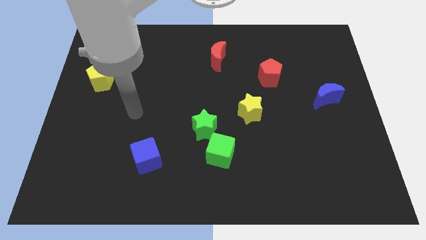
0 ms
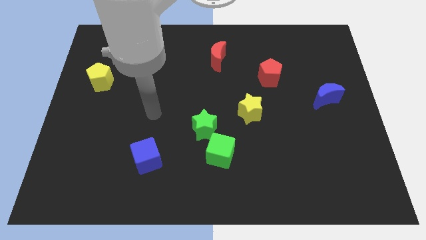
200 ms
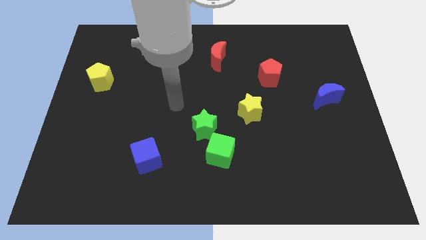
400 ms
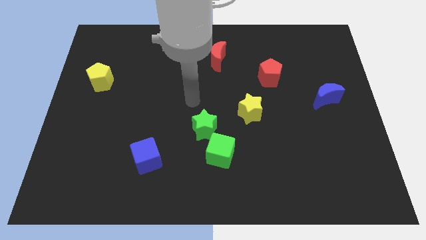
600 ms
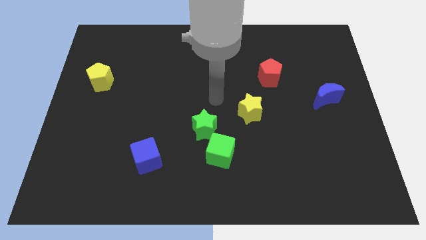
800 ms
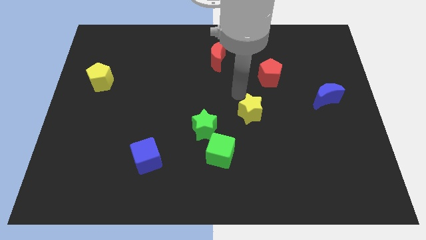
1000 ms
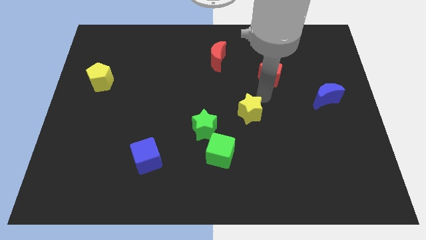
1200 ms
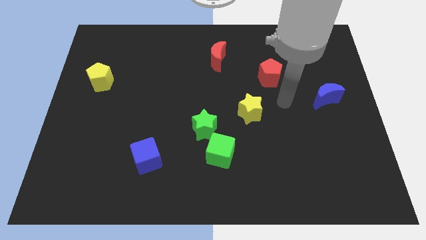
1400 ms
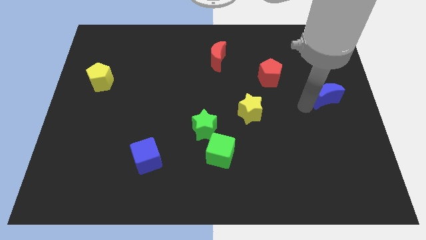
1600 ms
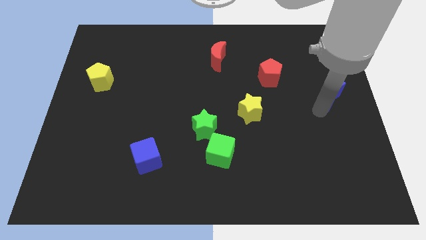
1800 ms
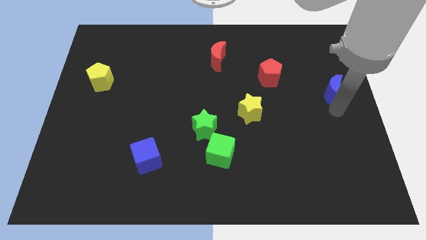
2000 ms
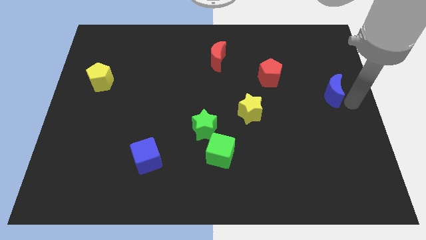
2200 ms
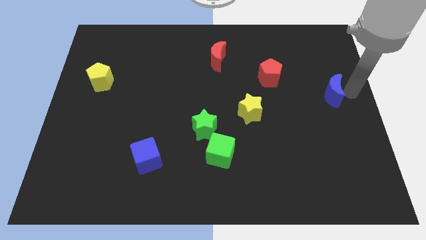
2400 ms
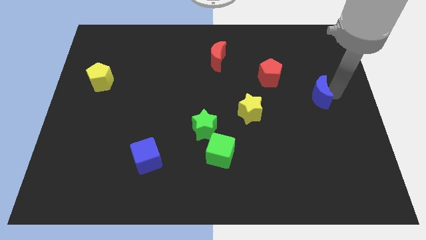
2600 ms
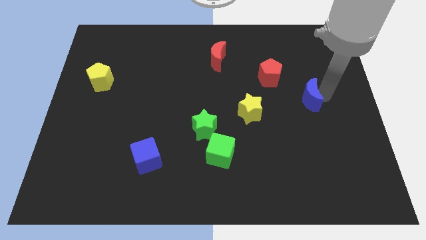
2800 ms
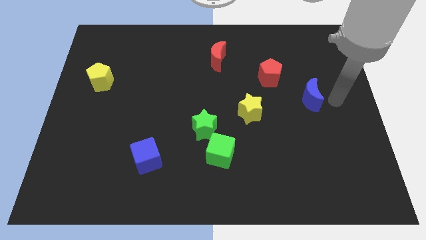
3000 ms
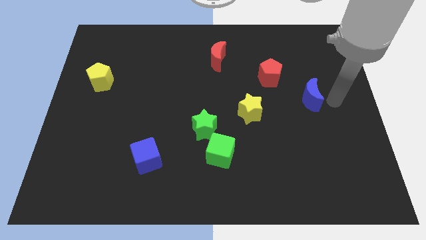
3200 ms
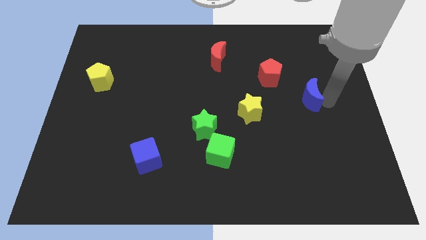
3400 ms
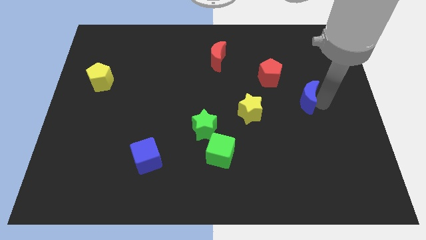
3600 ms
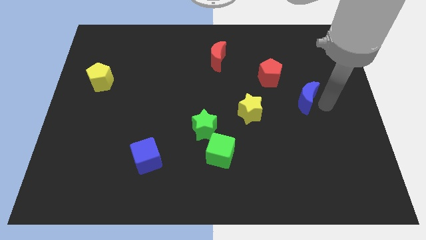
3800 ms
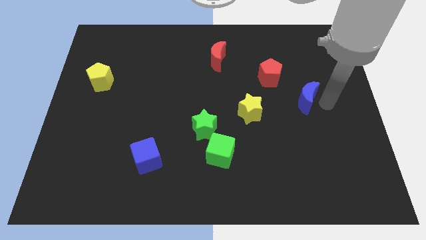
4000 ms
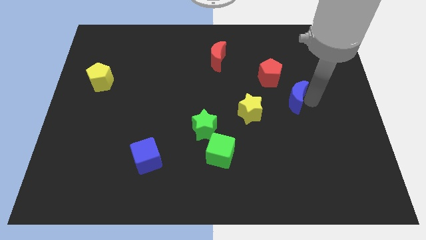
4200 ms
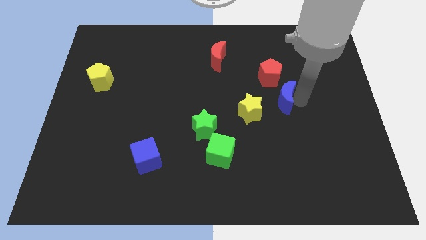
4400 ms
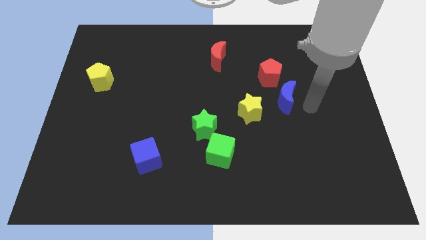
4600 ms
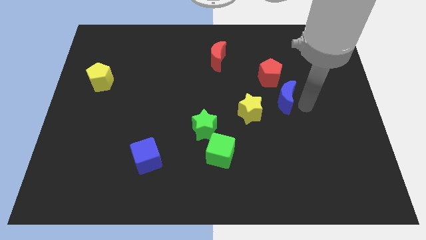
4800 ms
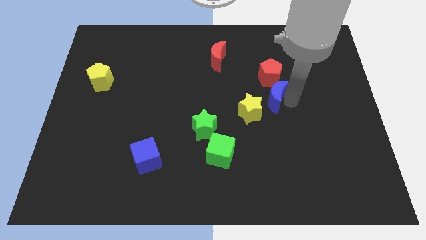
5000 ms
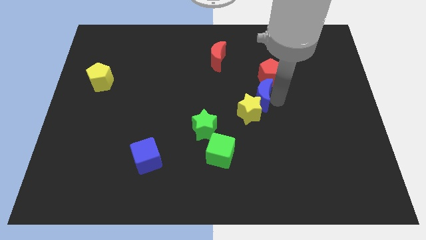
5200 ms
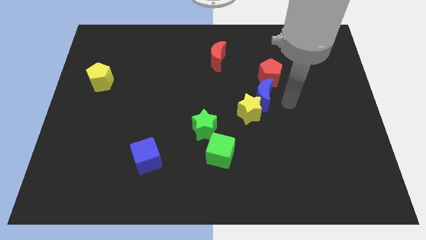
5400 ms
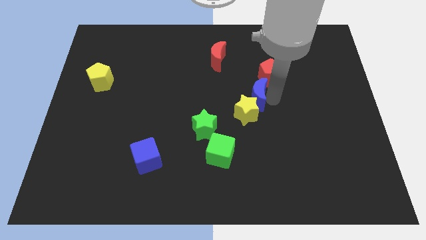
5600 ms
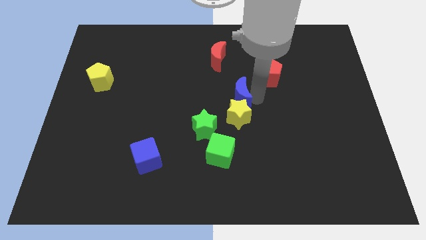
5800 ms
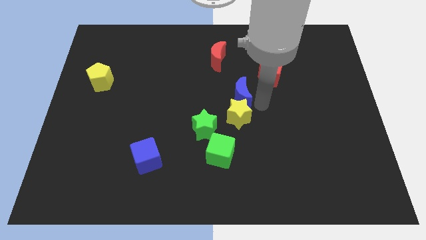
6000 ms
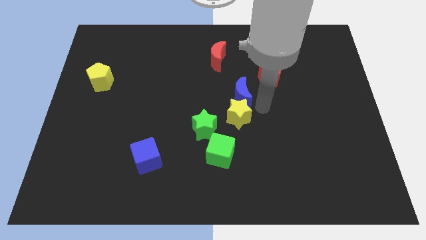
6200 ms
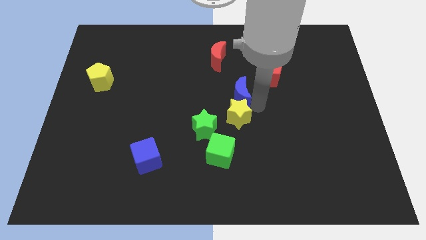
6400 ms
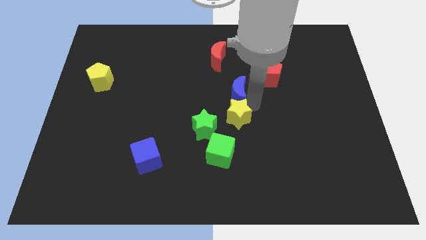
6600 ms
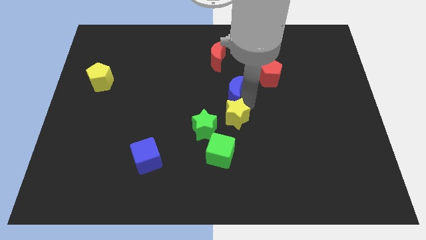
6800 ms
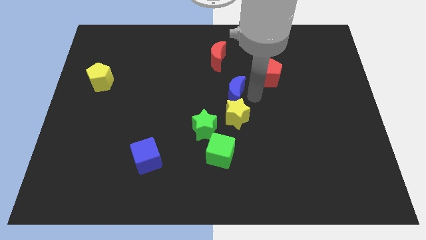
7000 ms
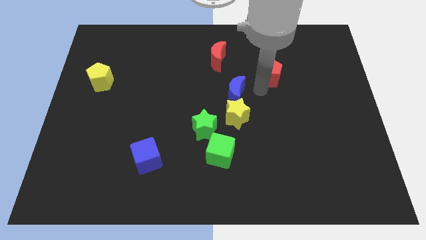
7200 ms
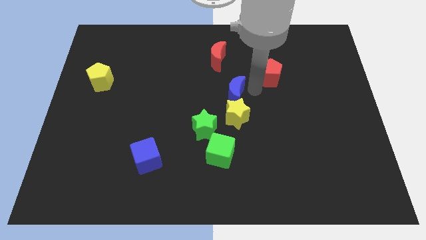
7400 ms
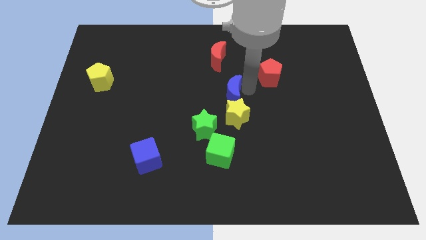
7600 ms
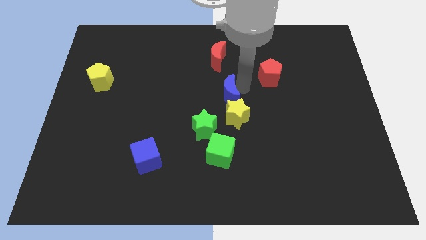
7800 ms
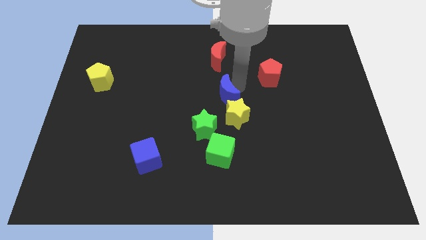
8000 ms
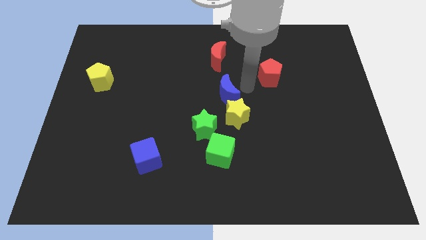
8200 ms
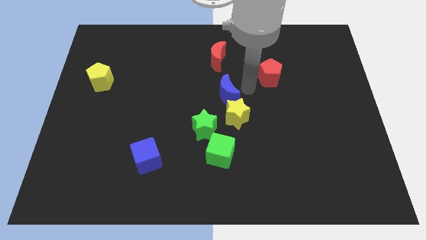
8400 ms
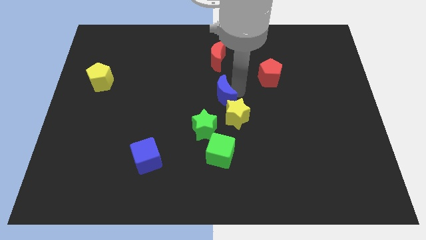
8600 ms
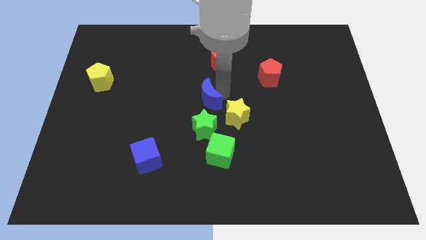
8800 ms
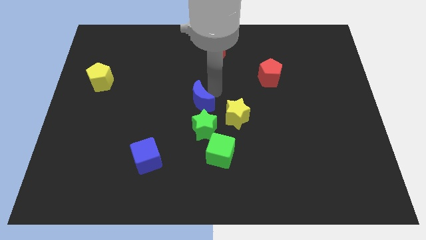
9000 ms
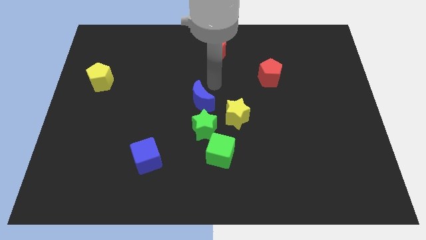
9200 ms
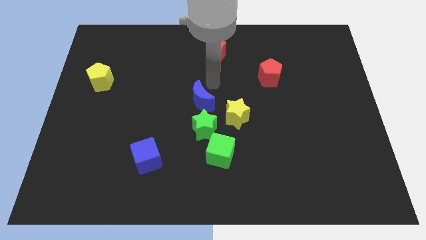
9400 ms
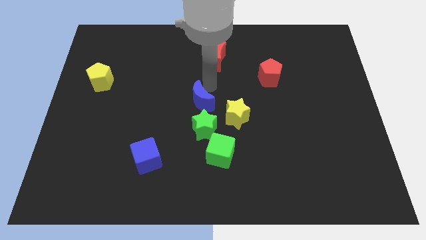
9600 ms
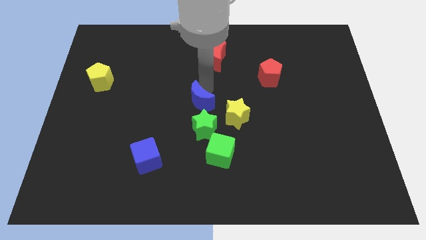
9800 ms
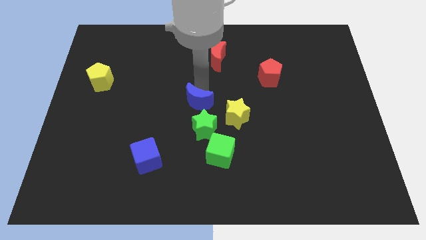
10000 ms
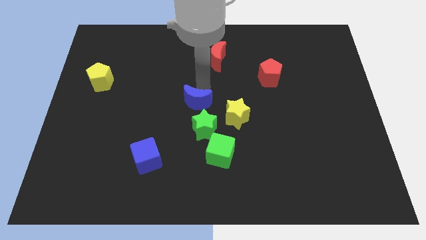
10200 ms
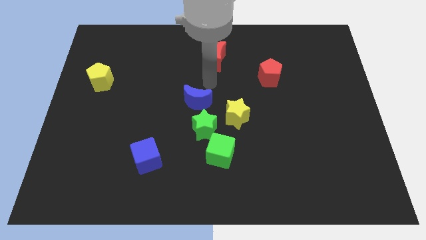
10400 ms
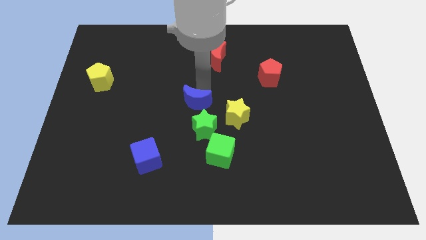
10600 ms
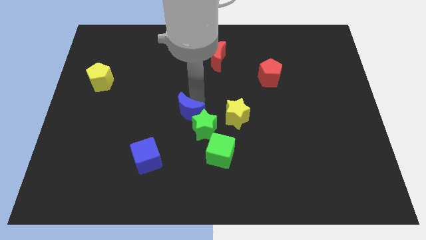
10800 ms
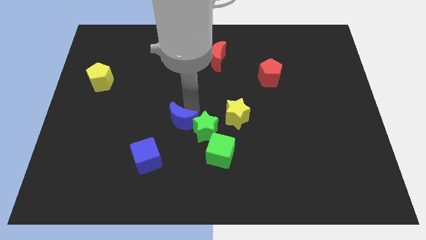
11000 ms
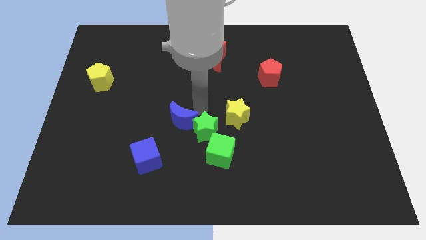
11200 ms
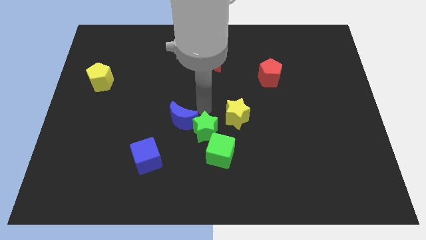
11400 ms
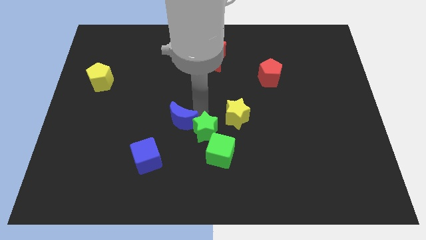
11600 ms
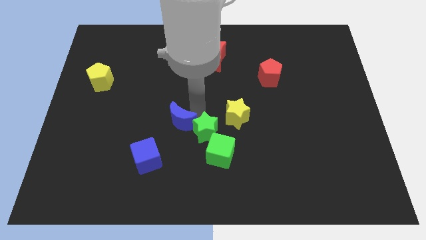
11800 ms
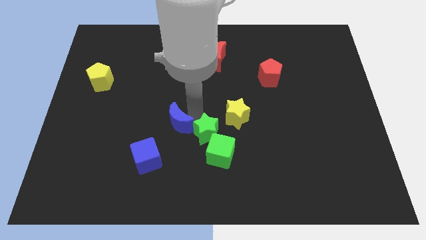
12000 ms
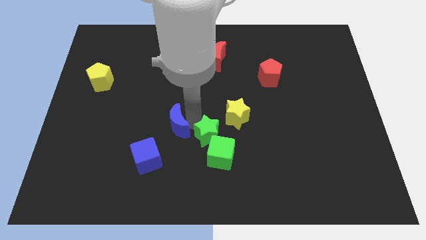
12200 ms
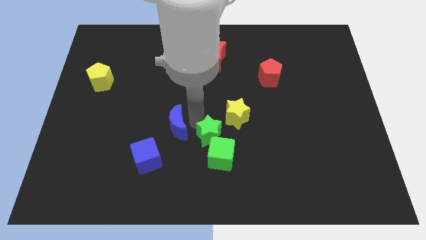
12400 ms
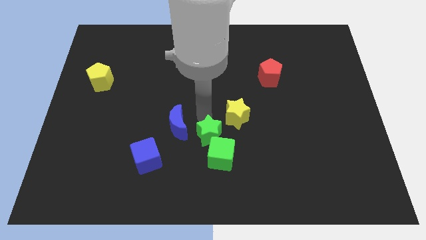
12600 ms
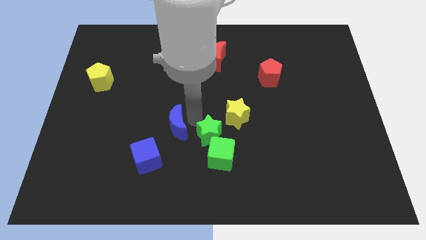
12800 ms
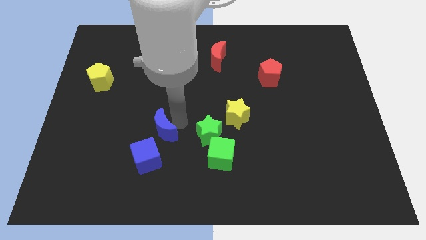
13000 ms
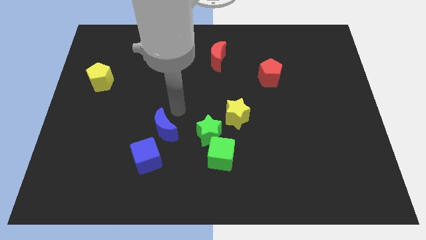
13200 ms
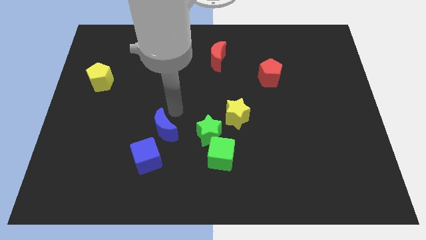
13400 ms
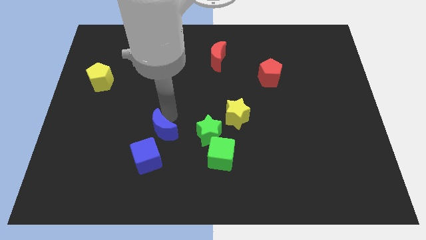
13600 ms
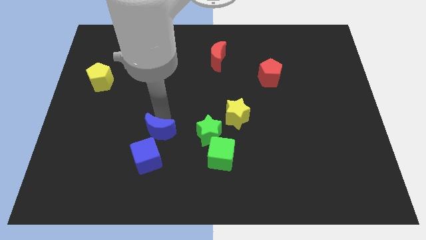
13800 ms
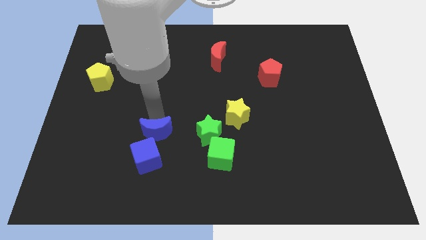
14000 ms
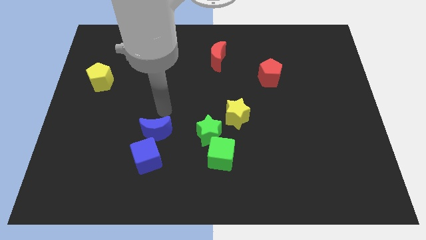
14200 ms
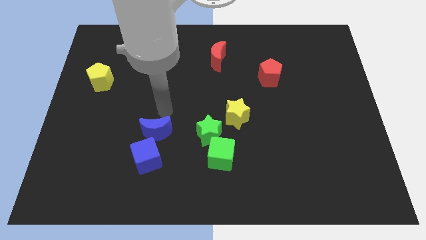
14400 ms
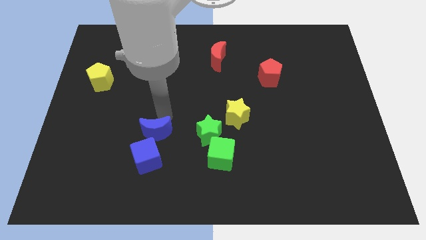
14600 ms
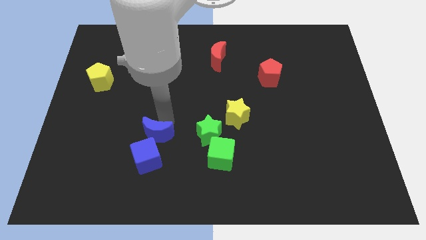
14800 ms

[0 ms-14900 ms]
put the blue moon to the blue cube
